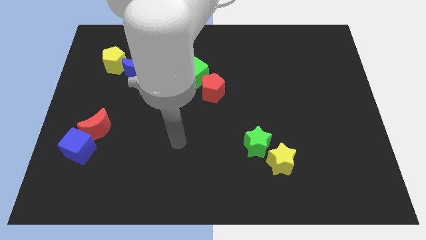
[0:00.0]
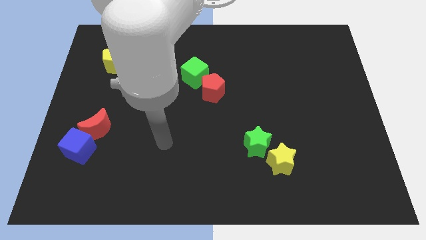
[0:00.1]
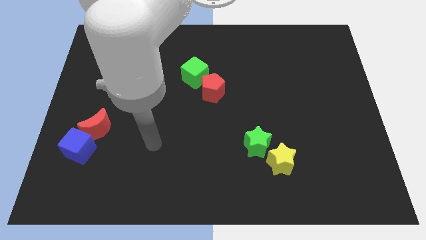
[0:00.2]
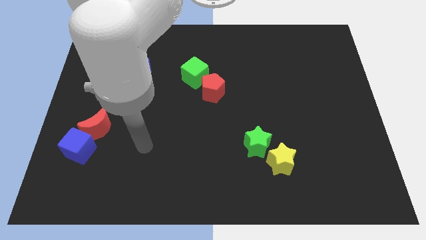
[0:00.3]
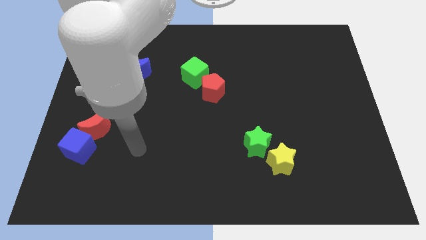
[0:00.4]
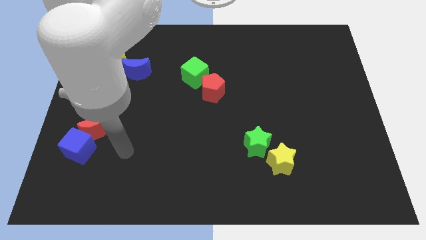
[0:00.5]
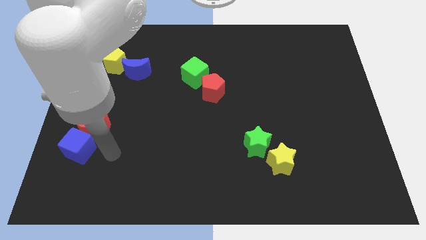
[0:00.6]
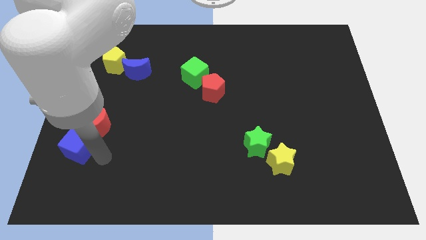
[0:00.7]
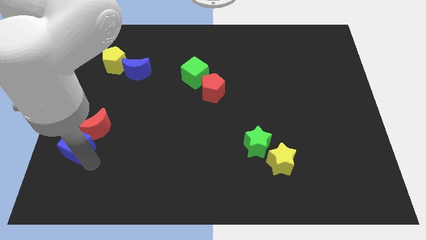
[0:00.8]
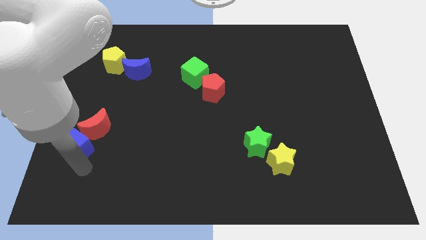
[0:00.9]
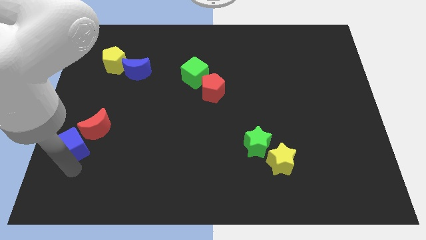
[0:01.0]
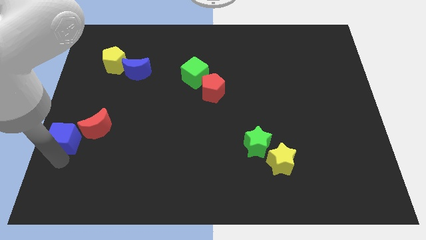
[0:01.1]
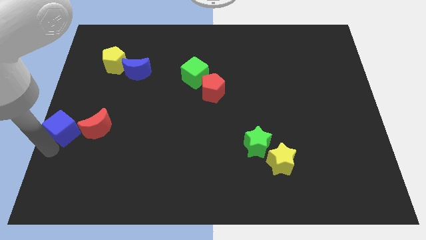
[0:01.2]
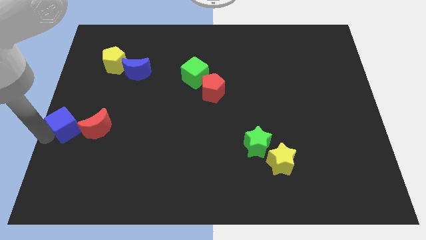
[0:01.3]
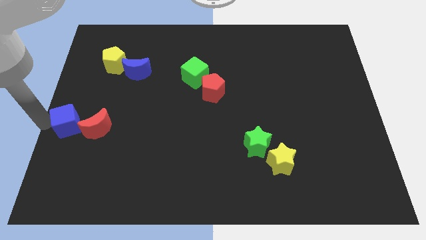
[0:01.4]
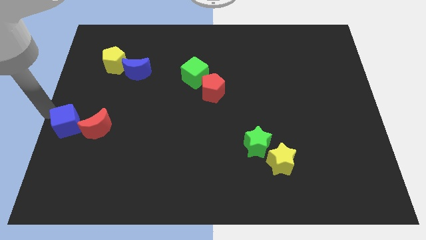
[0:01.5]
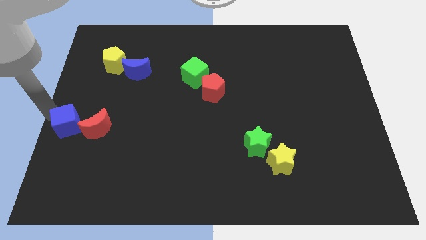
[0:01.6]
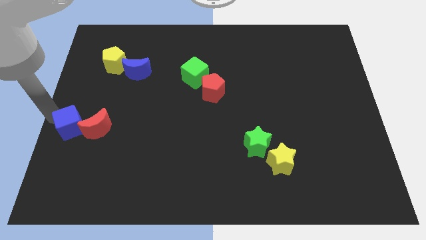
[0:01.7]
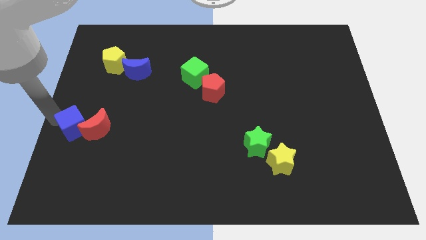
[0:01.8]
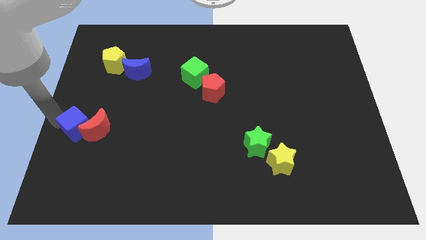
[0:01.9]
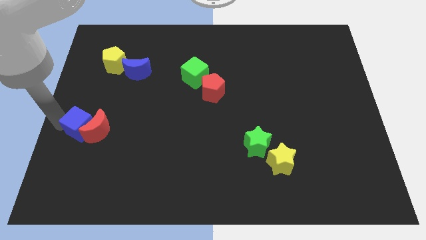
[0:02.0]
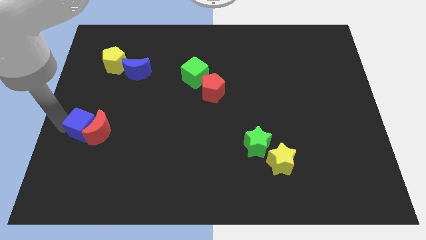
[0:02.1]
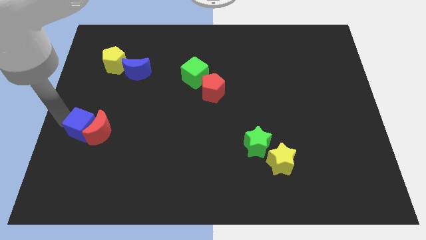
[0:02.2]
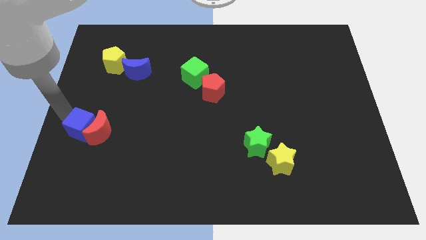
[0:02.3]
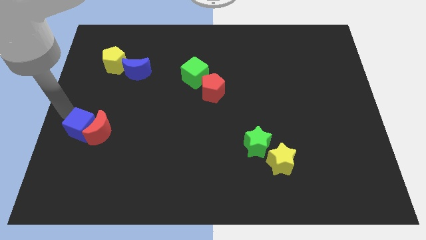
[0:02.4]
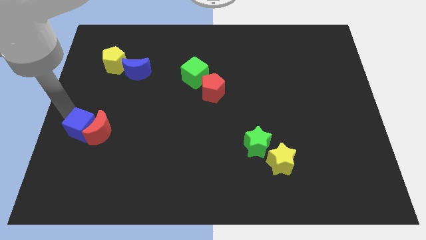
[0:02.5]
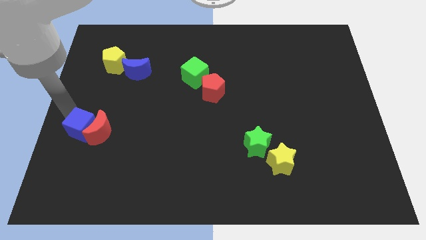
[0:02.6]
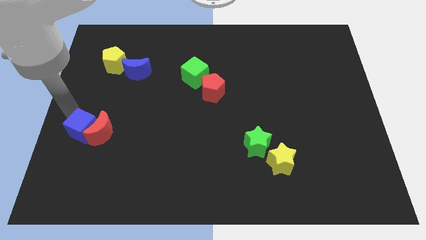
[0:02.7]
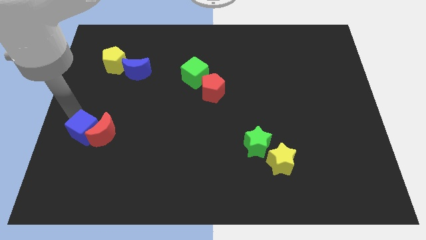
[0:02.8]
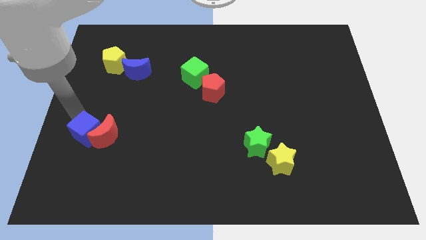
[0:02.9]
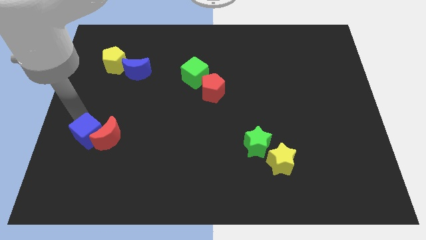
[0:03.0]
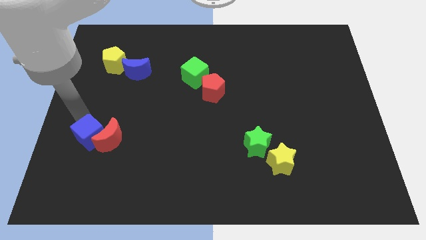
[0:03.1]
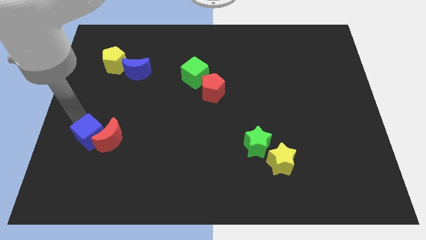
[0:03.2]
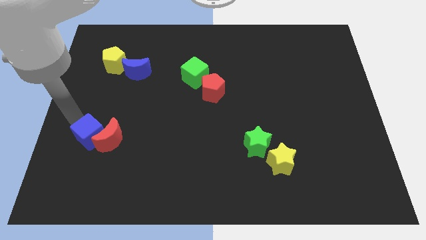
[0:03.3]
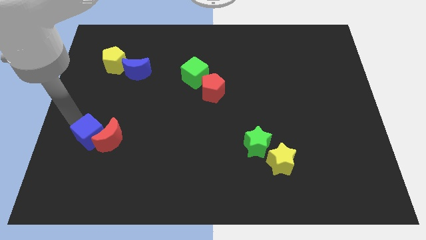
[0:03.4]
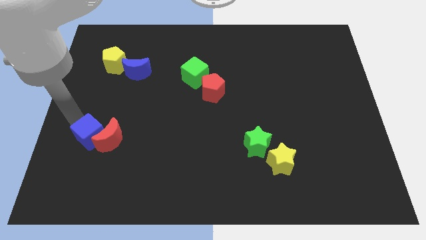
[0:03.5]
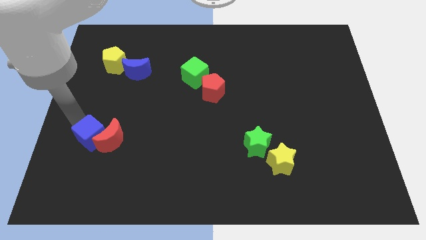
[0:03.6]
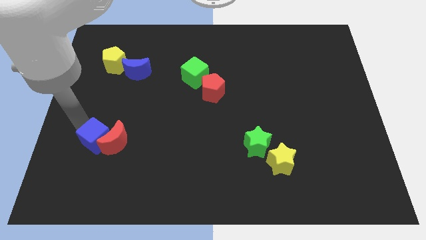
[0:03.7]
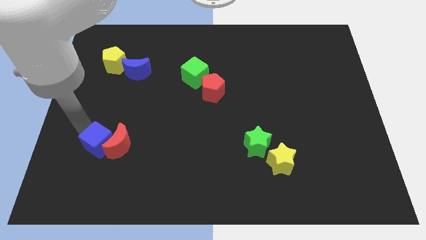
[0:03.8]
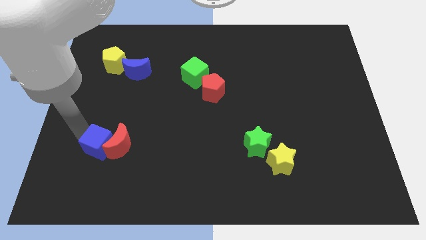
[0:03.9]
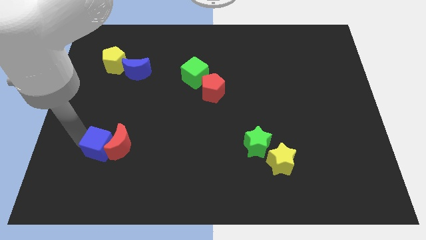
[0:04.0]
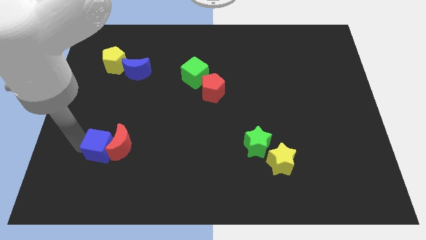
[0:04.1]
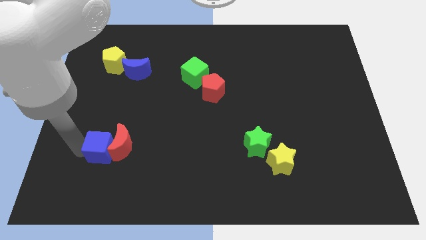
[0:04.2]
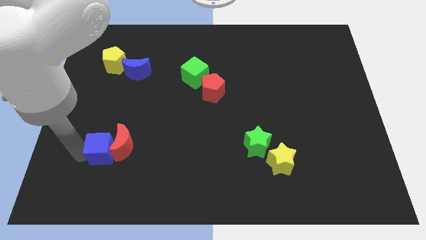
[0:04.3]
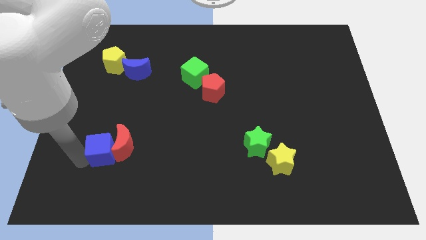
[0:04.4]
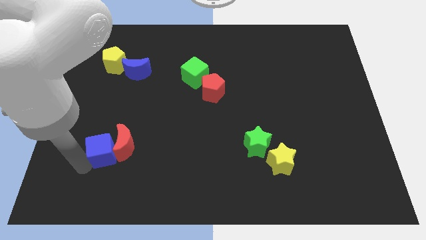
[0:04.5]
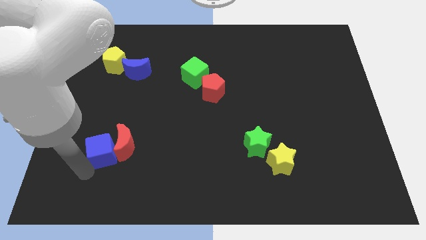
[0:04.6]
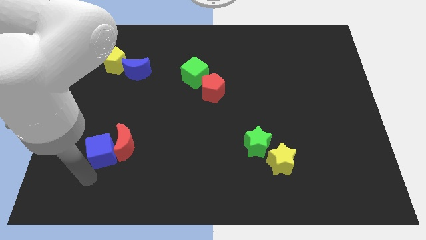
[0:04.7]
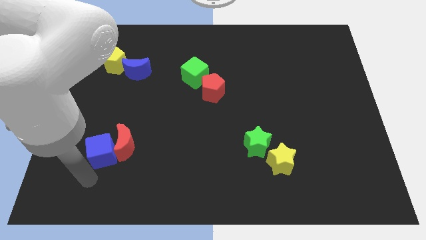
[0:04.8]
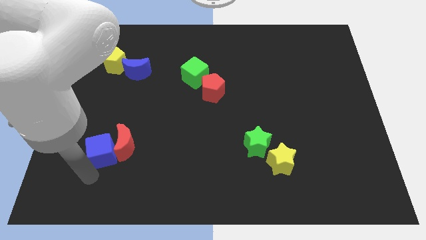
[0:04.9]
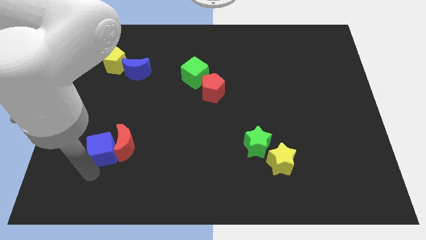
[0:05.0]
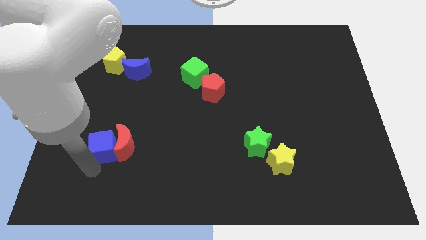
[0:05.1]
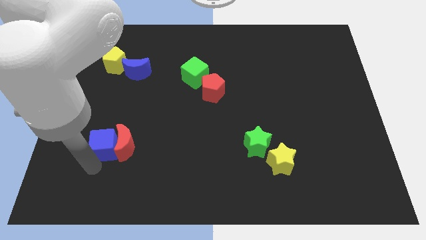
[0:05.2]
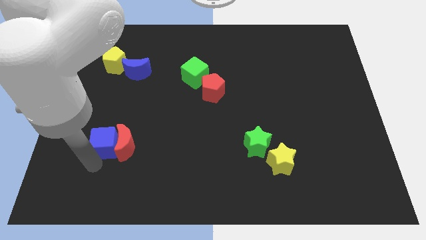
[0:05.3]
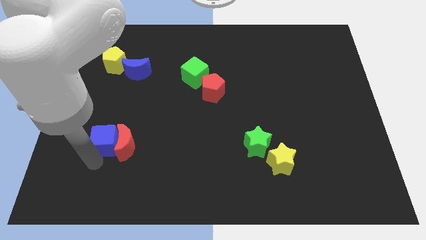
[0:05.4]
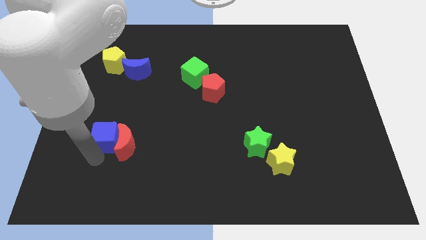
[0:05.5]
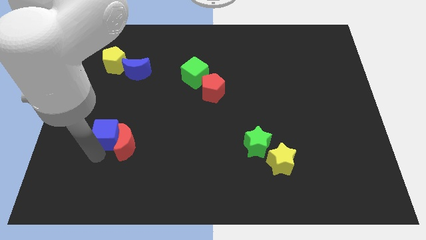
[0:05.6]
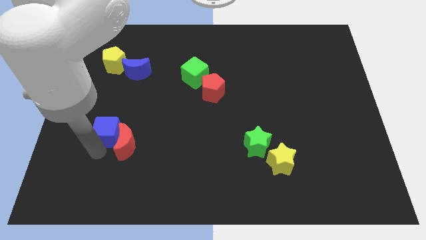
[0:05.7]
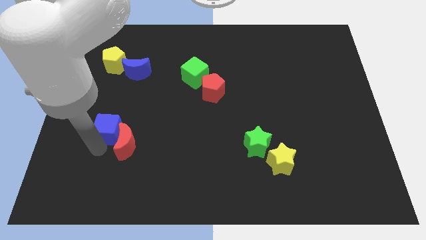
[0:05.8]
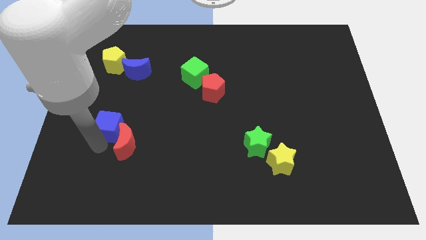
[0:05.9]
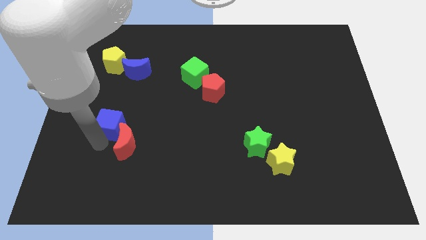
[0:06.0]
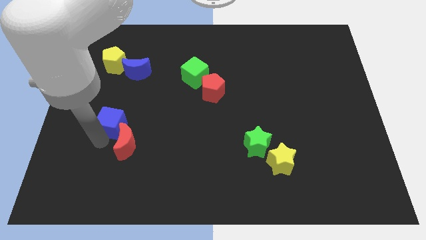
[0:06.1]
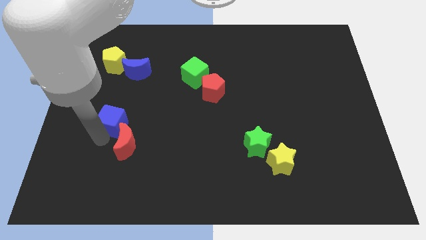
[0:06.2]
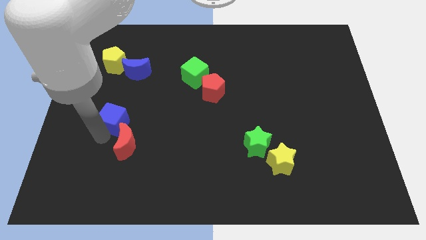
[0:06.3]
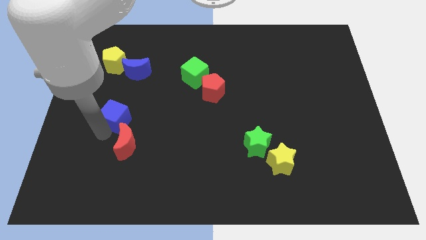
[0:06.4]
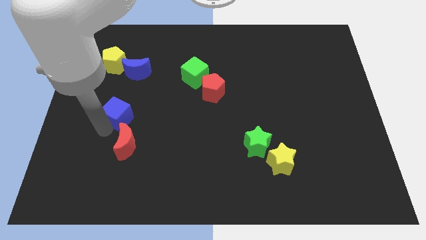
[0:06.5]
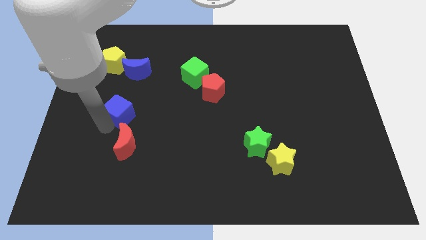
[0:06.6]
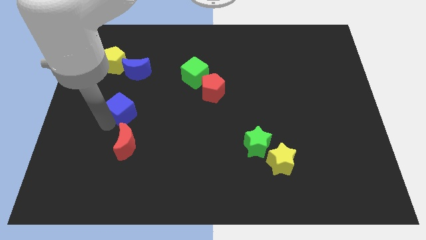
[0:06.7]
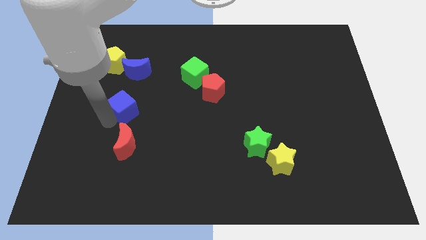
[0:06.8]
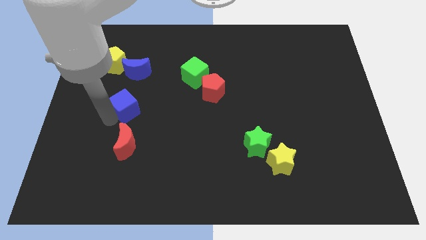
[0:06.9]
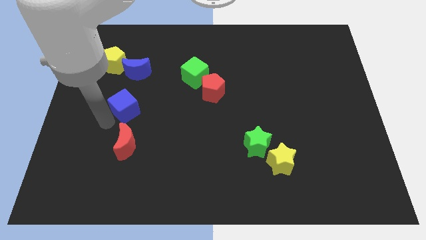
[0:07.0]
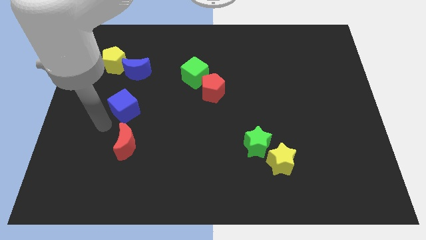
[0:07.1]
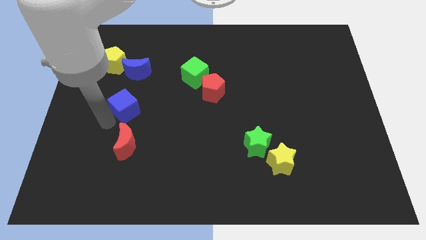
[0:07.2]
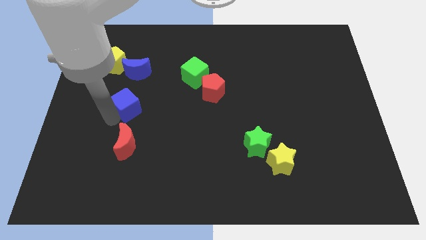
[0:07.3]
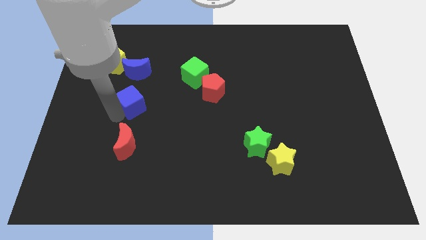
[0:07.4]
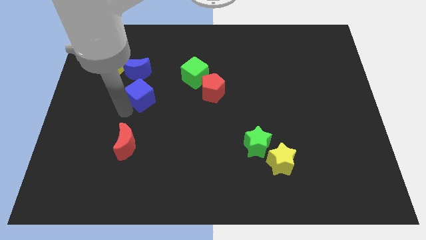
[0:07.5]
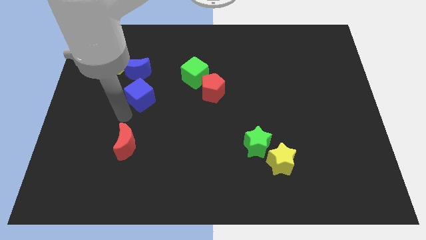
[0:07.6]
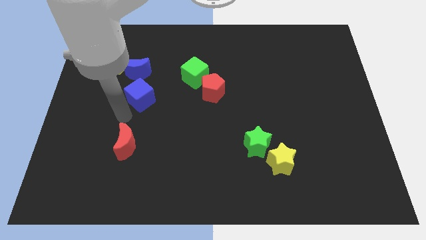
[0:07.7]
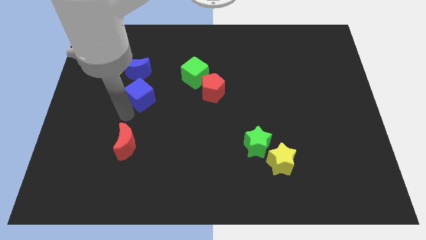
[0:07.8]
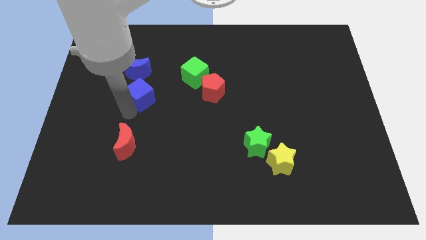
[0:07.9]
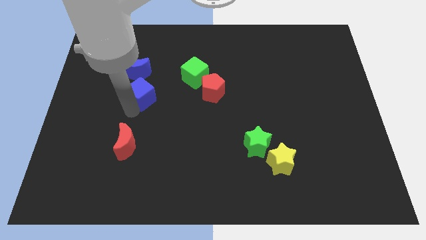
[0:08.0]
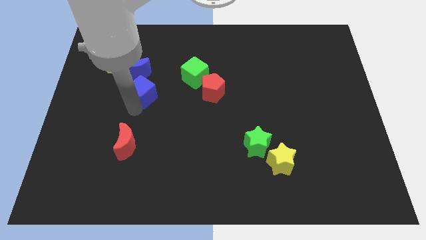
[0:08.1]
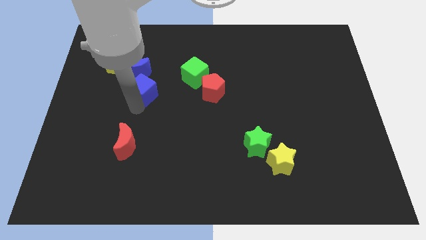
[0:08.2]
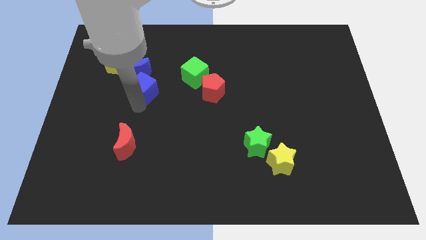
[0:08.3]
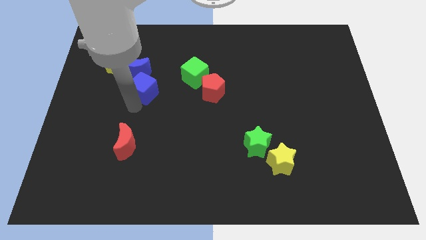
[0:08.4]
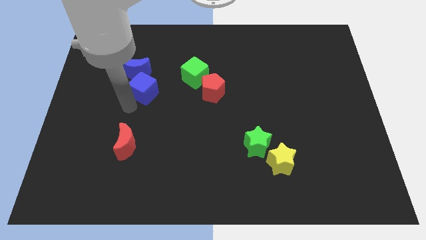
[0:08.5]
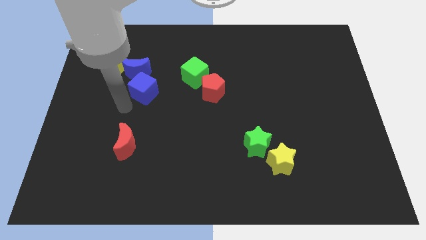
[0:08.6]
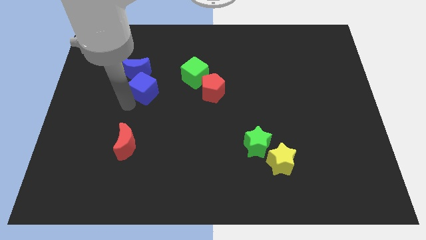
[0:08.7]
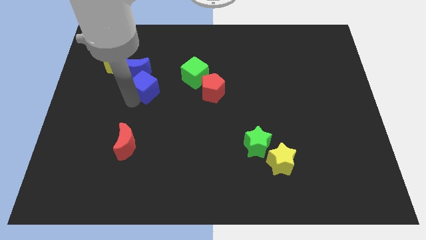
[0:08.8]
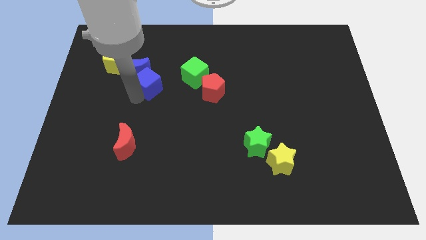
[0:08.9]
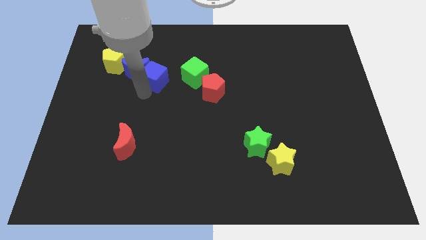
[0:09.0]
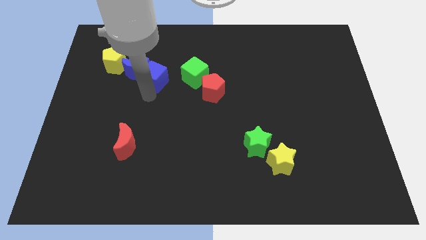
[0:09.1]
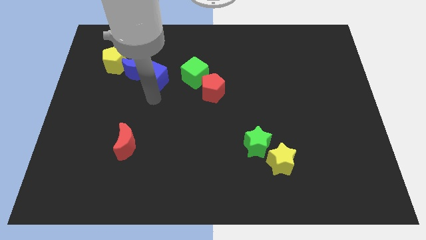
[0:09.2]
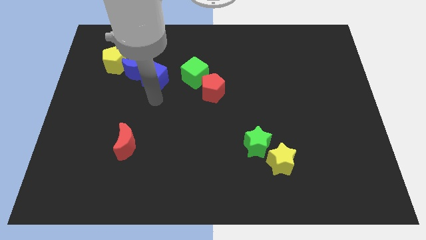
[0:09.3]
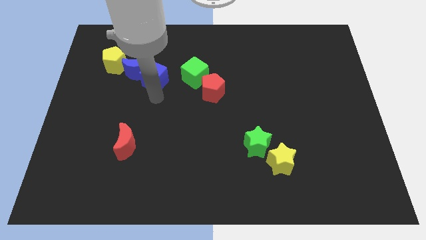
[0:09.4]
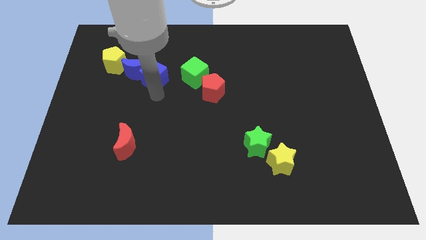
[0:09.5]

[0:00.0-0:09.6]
push the blue cube right of the yellow pentagon
